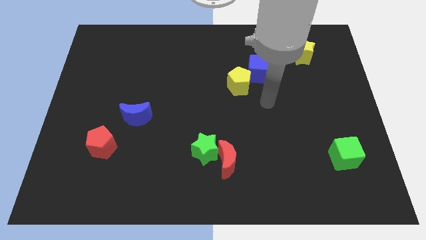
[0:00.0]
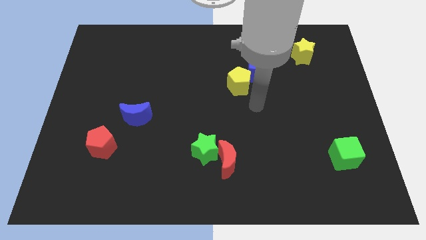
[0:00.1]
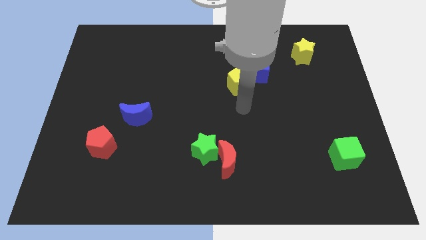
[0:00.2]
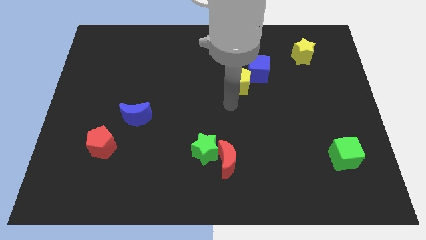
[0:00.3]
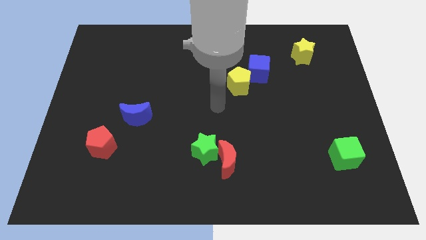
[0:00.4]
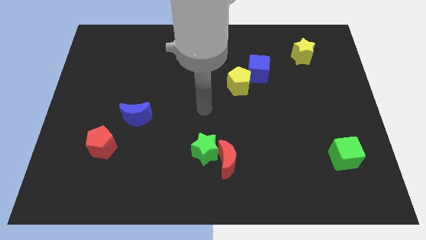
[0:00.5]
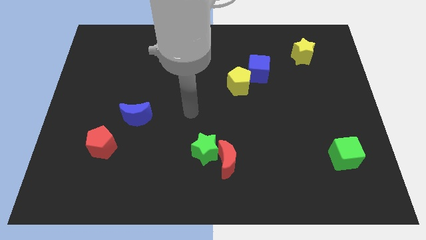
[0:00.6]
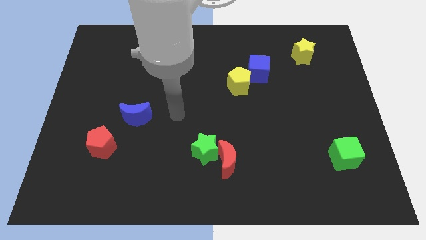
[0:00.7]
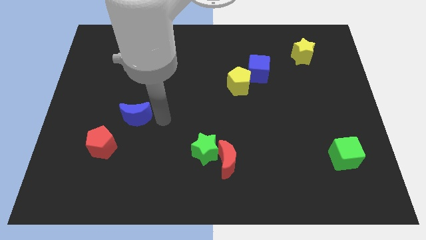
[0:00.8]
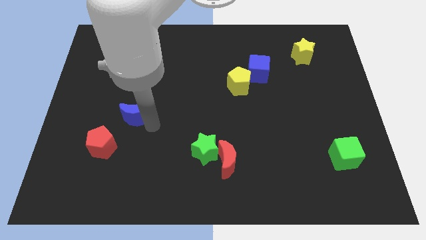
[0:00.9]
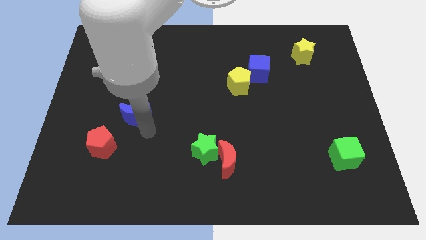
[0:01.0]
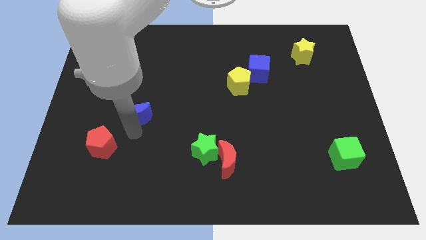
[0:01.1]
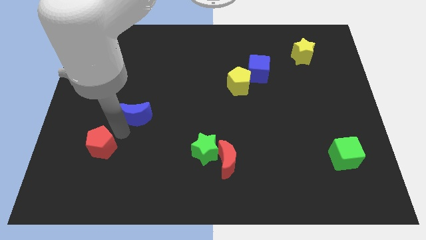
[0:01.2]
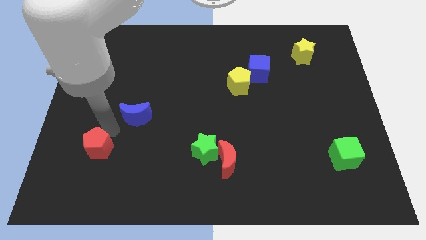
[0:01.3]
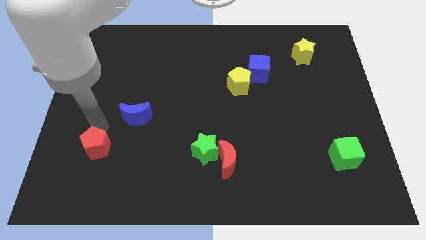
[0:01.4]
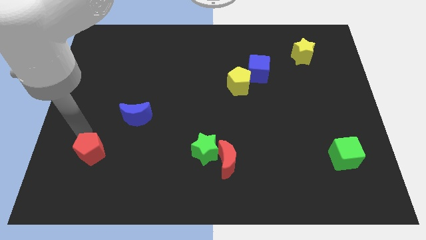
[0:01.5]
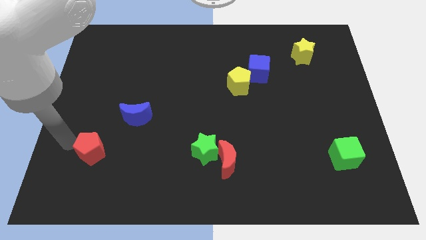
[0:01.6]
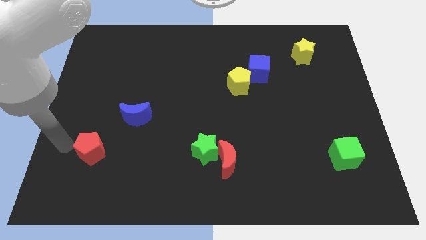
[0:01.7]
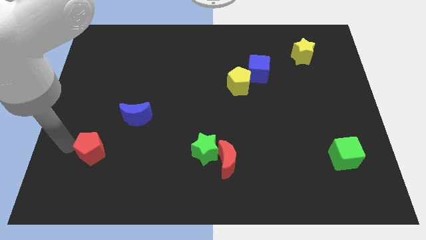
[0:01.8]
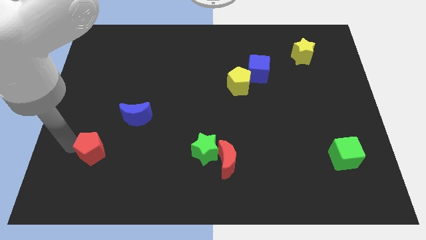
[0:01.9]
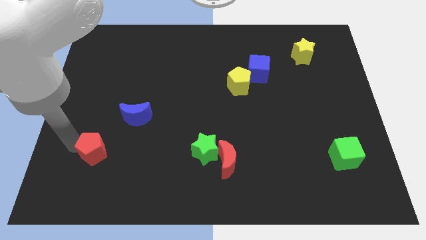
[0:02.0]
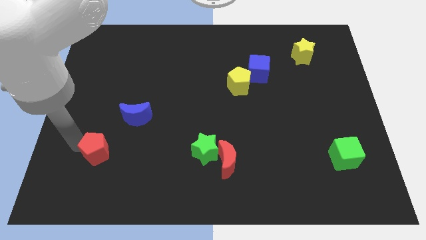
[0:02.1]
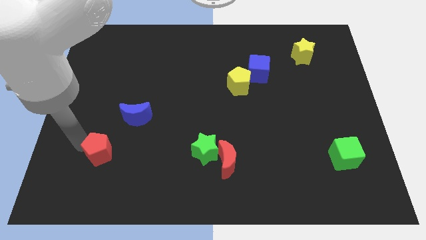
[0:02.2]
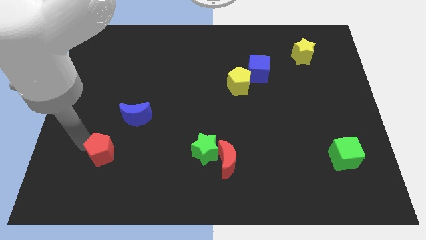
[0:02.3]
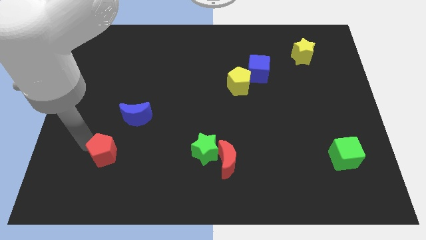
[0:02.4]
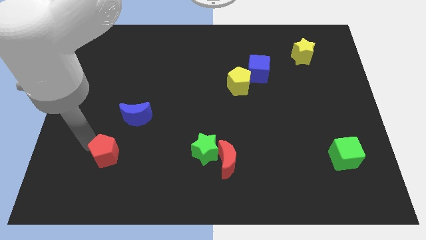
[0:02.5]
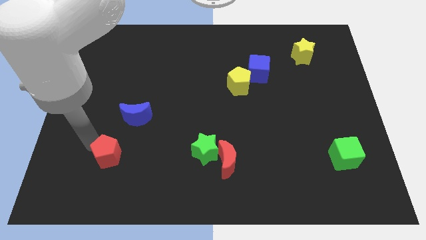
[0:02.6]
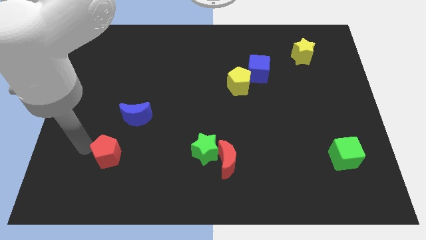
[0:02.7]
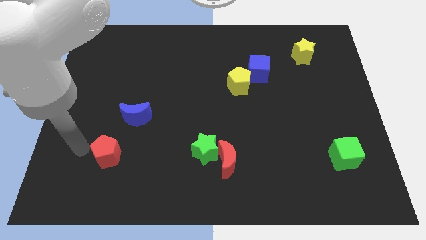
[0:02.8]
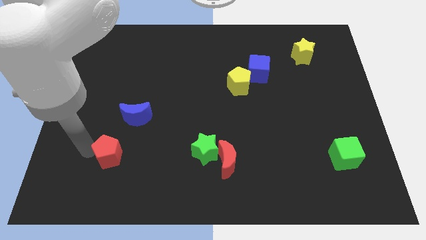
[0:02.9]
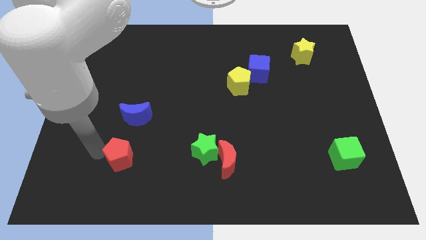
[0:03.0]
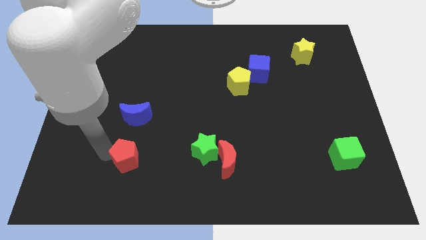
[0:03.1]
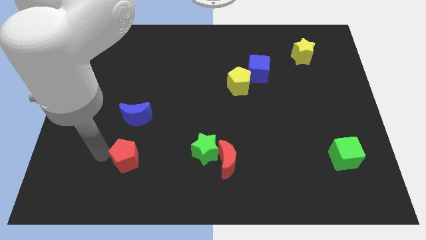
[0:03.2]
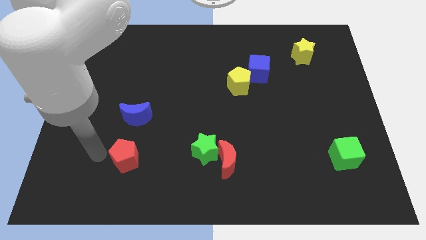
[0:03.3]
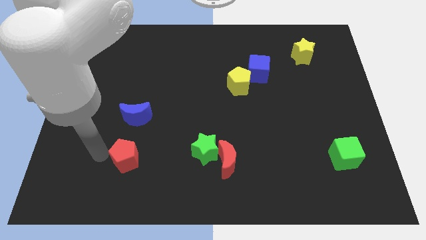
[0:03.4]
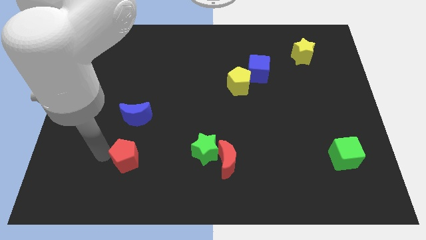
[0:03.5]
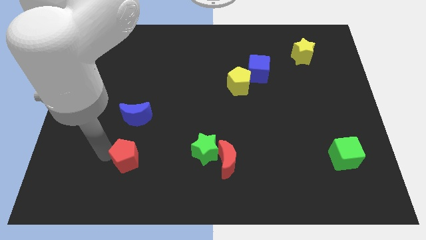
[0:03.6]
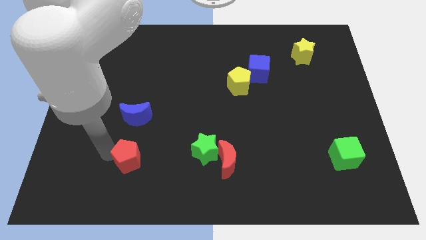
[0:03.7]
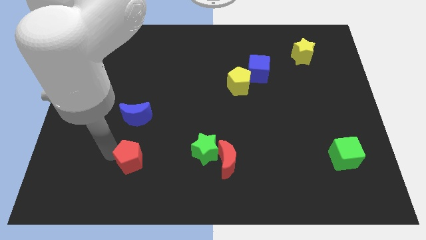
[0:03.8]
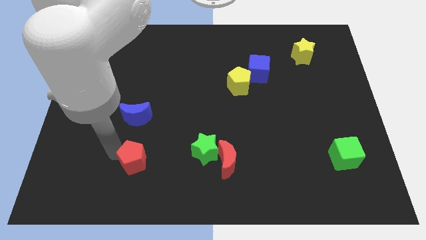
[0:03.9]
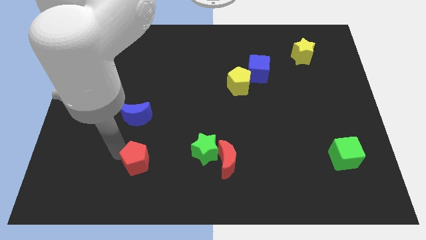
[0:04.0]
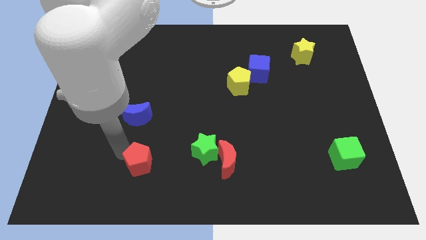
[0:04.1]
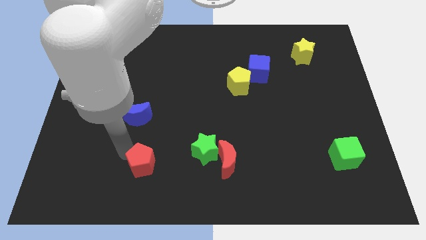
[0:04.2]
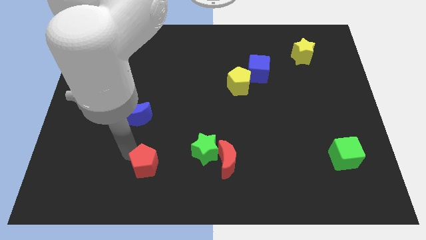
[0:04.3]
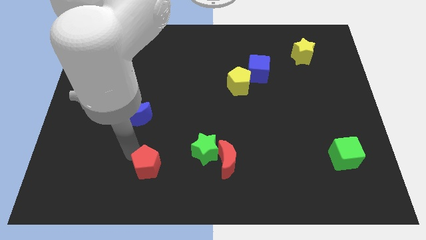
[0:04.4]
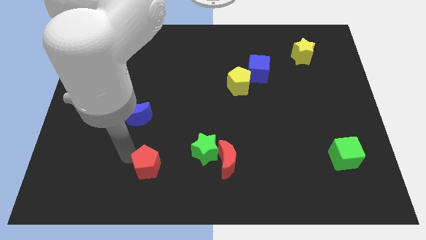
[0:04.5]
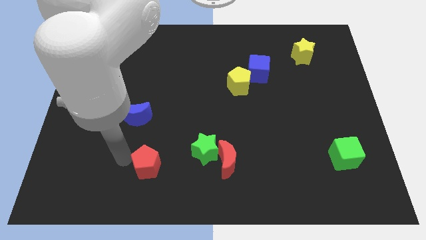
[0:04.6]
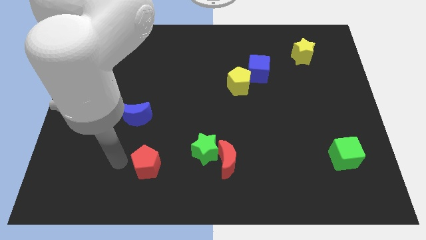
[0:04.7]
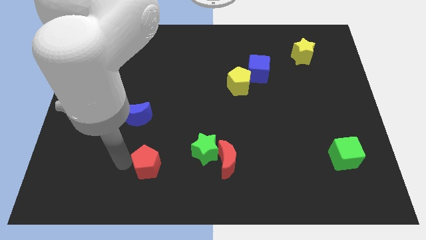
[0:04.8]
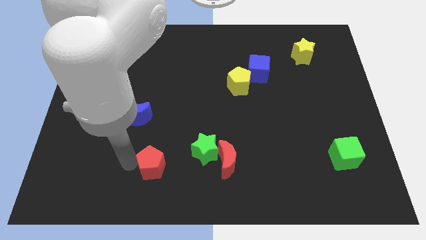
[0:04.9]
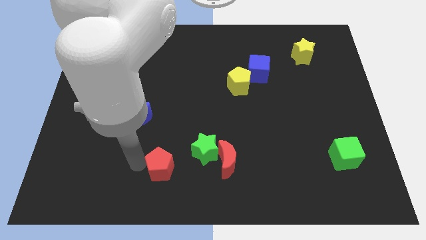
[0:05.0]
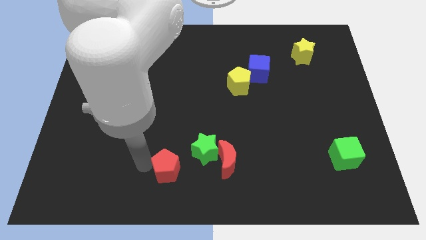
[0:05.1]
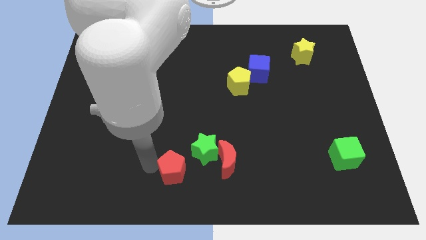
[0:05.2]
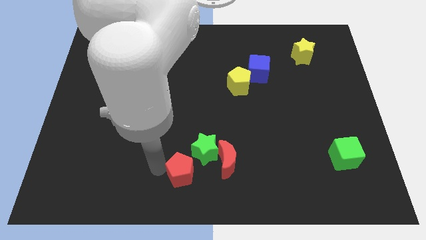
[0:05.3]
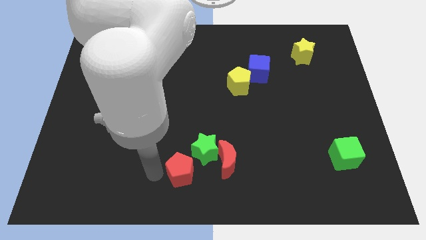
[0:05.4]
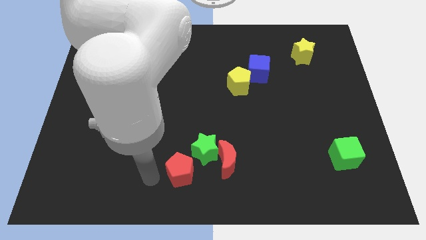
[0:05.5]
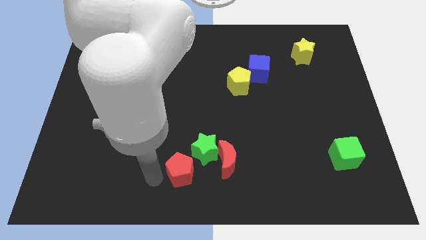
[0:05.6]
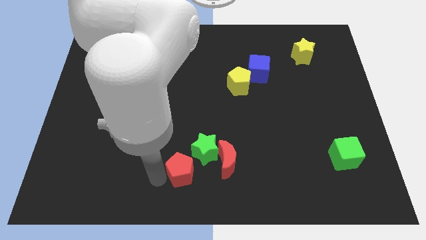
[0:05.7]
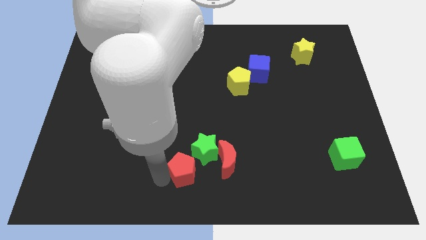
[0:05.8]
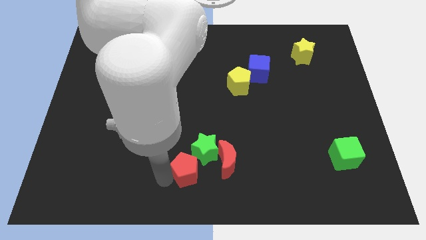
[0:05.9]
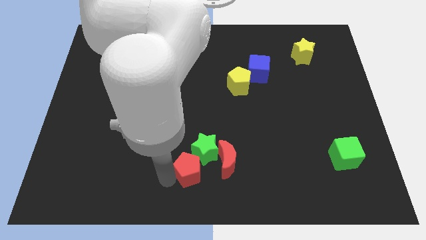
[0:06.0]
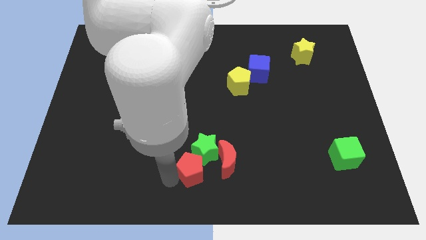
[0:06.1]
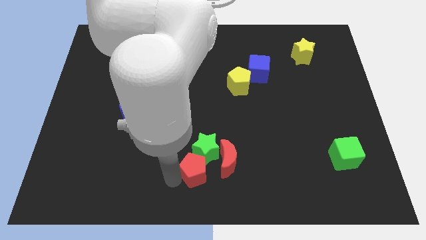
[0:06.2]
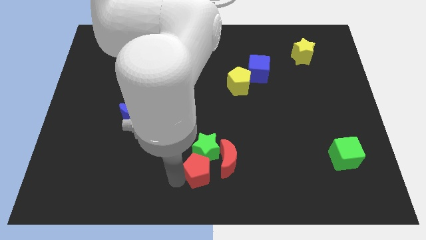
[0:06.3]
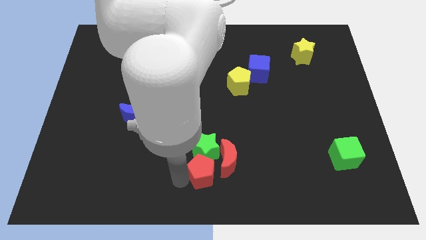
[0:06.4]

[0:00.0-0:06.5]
push the red pentagon to the red moon

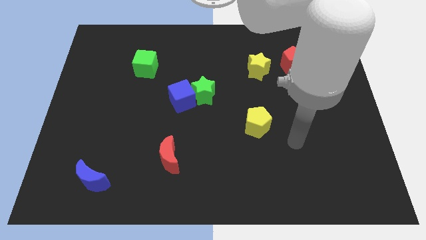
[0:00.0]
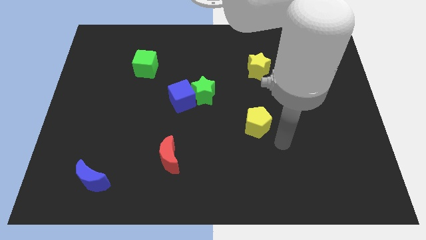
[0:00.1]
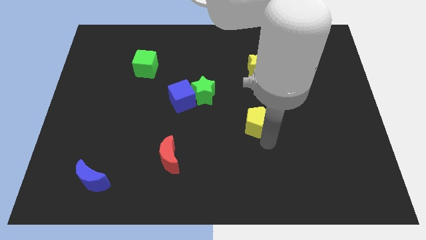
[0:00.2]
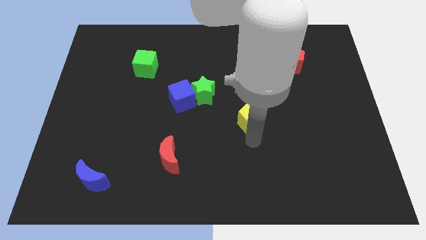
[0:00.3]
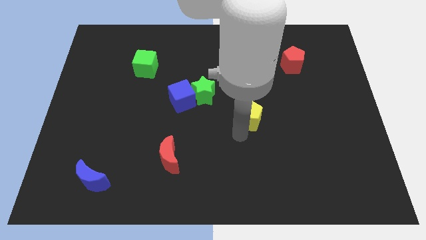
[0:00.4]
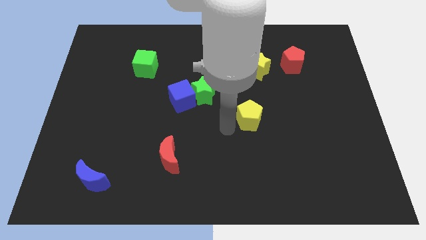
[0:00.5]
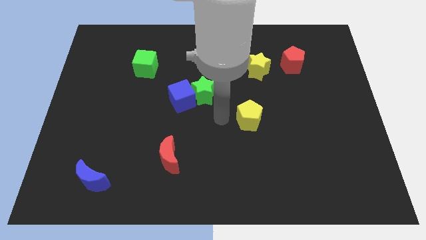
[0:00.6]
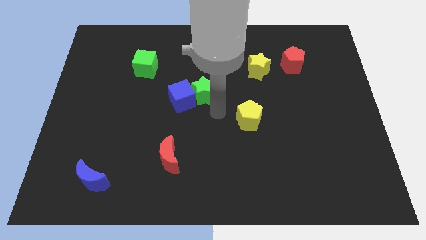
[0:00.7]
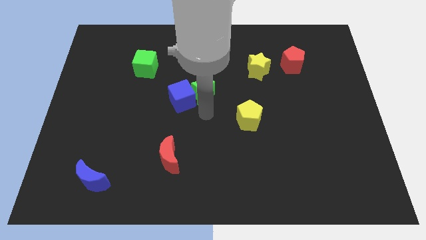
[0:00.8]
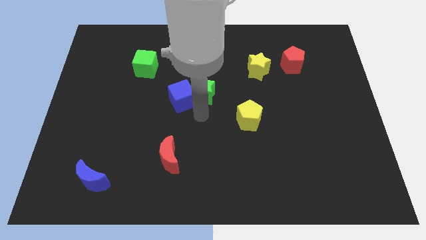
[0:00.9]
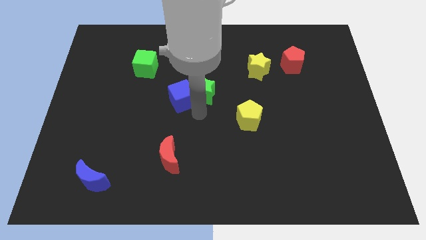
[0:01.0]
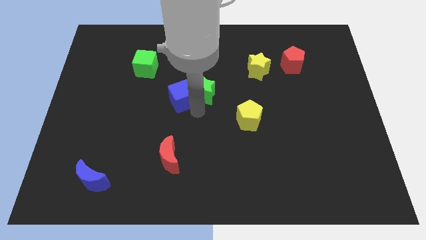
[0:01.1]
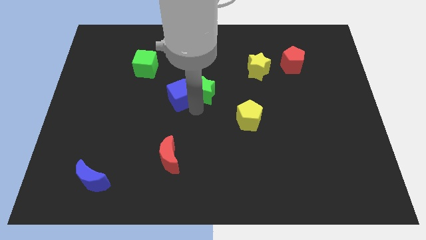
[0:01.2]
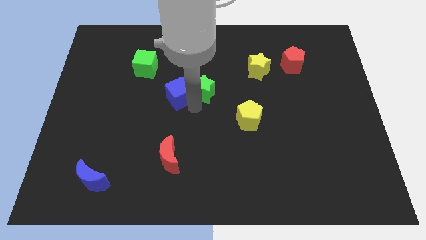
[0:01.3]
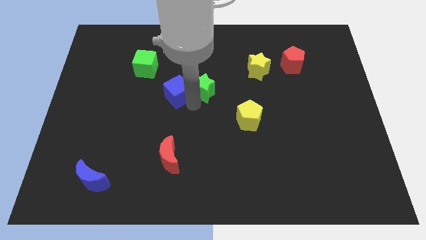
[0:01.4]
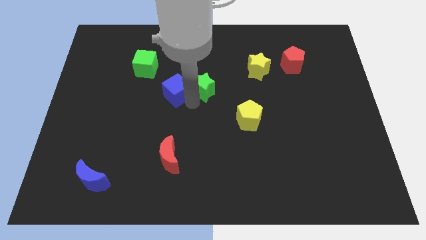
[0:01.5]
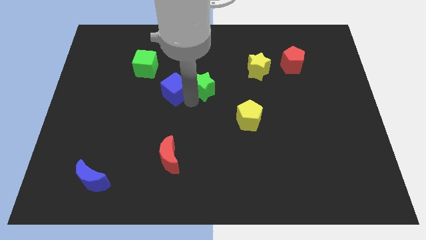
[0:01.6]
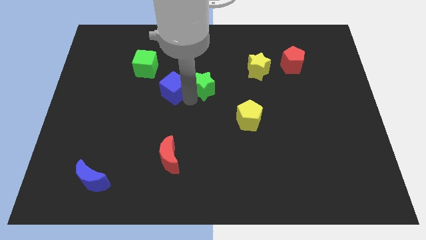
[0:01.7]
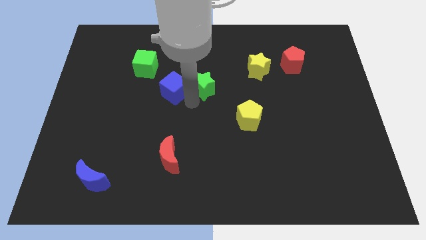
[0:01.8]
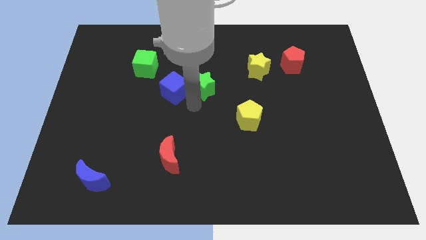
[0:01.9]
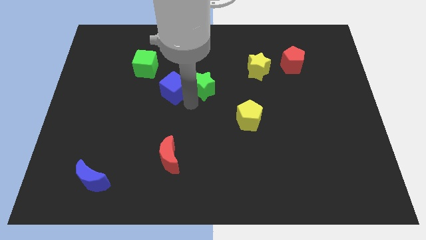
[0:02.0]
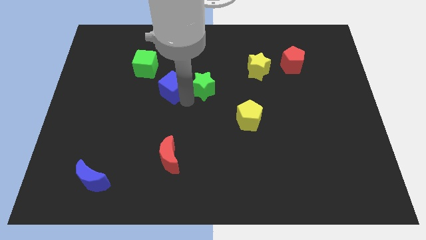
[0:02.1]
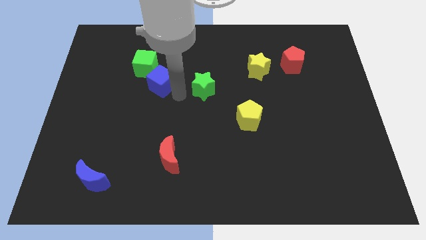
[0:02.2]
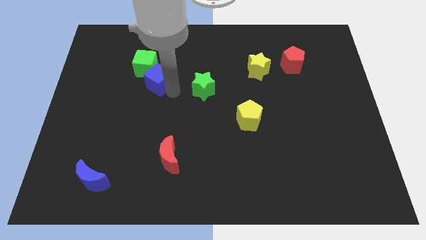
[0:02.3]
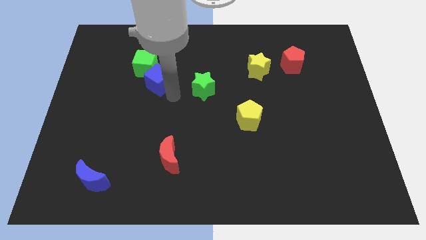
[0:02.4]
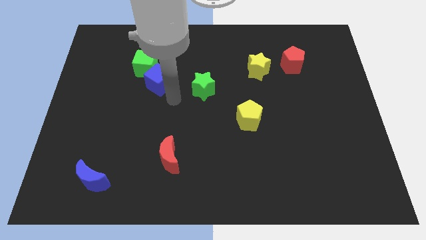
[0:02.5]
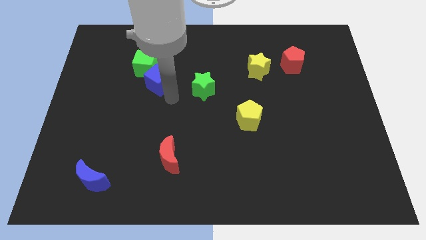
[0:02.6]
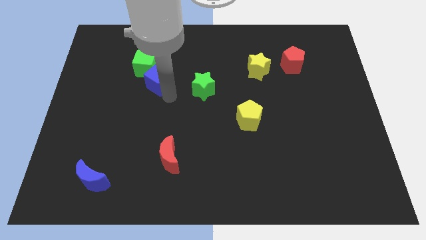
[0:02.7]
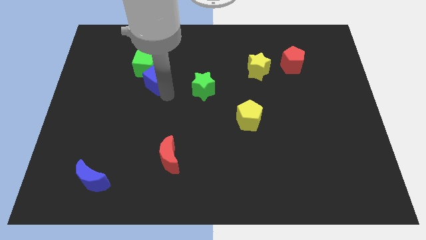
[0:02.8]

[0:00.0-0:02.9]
put the blue cube to the green cube
